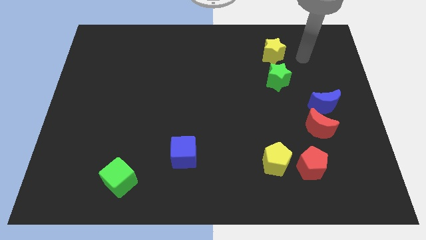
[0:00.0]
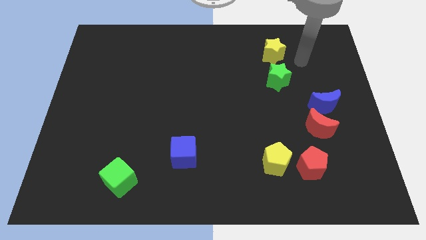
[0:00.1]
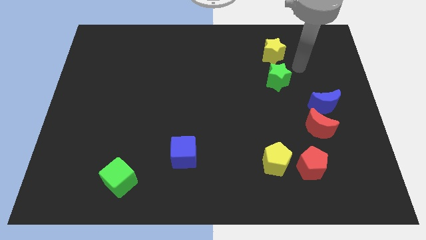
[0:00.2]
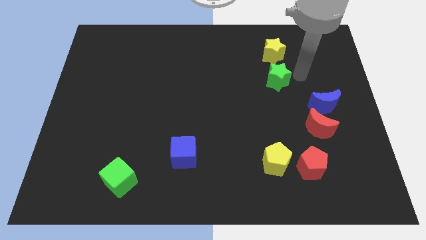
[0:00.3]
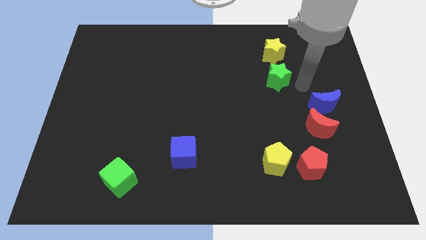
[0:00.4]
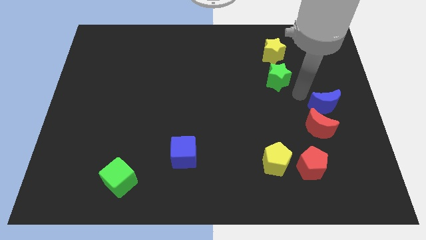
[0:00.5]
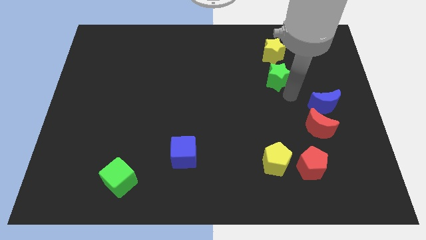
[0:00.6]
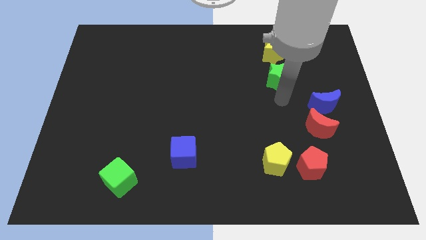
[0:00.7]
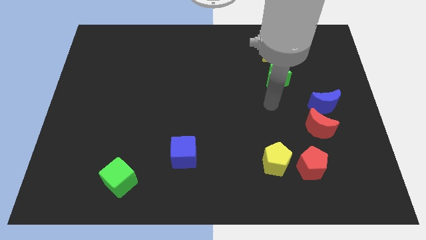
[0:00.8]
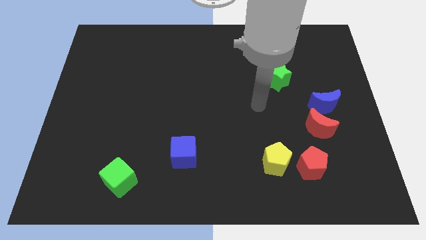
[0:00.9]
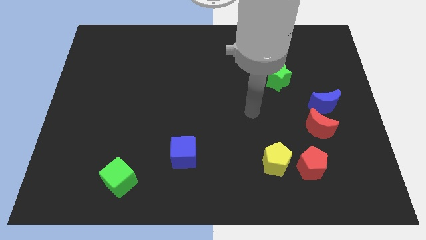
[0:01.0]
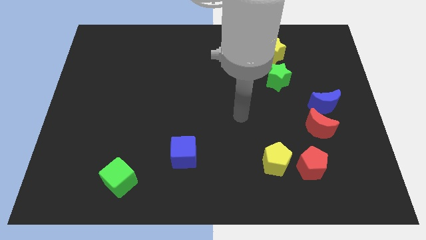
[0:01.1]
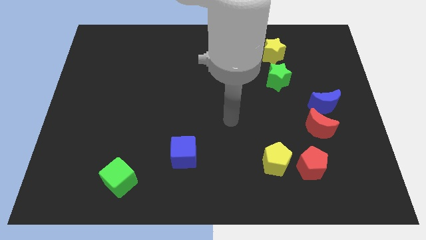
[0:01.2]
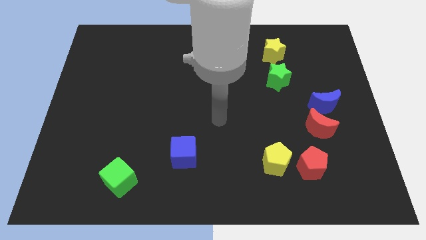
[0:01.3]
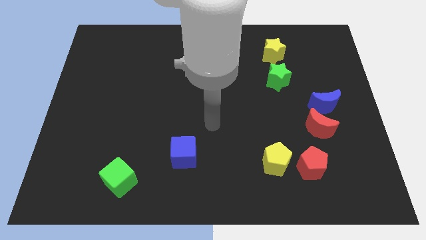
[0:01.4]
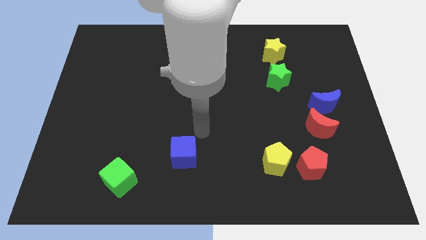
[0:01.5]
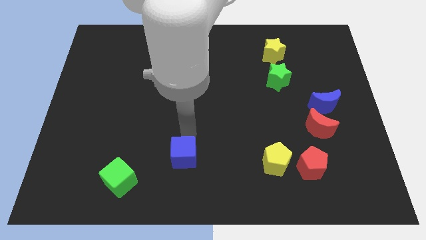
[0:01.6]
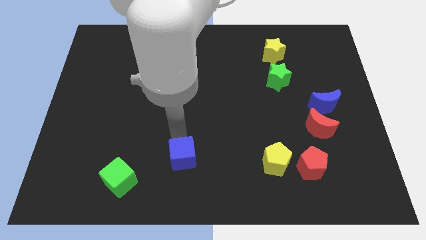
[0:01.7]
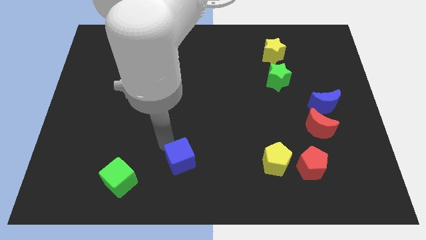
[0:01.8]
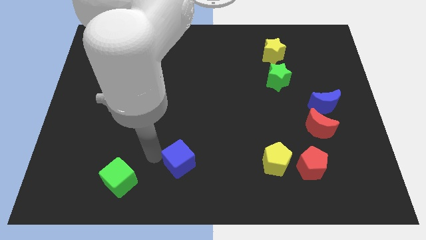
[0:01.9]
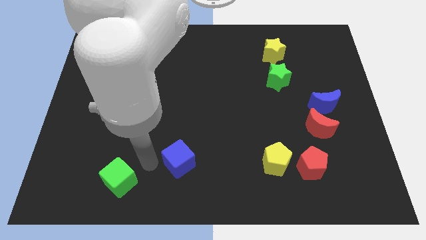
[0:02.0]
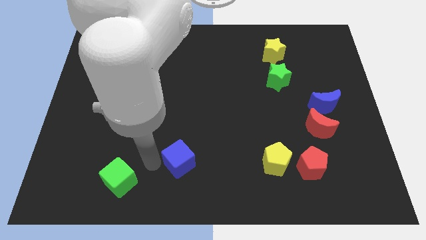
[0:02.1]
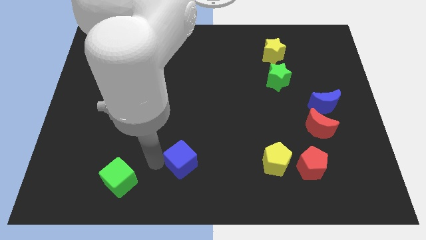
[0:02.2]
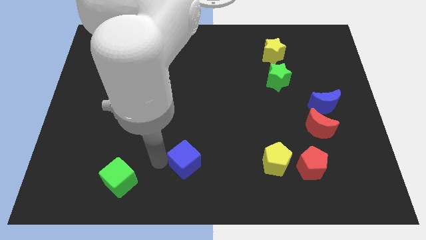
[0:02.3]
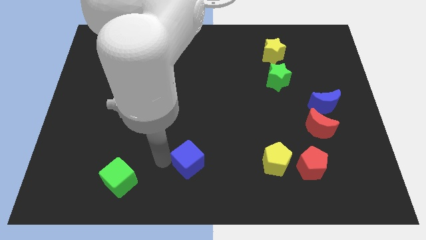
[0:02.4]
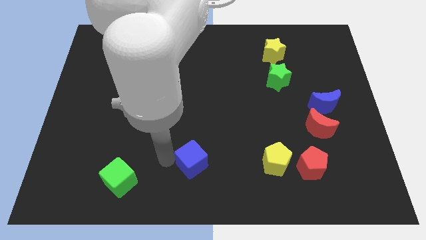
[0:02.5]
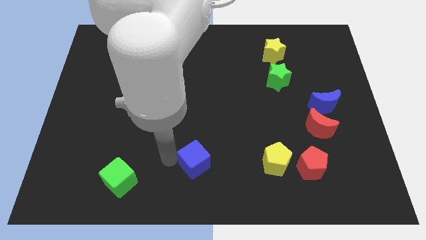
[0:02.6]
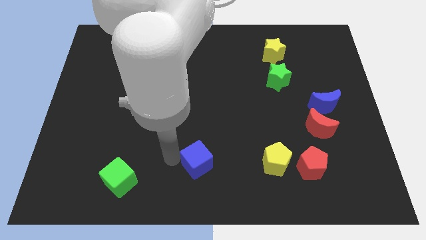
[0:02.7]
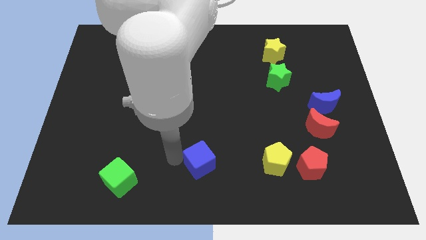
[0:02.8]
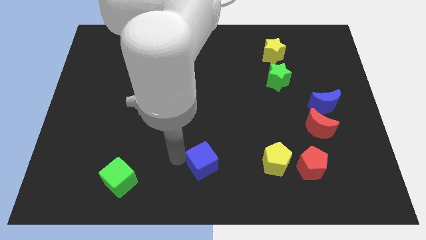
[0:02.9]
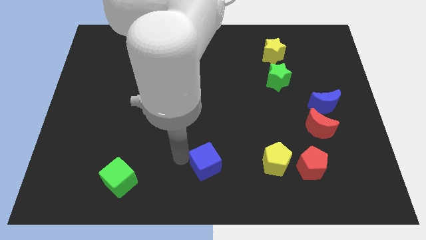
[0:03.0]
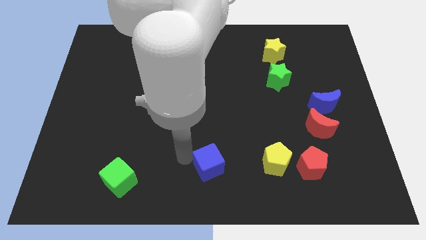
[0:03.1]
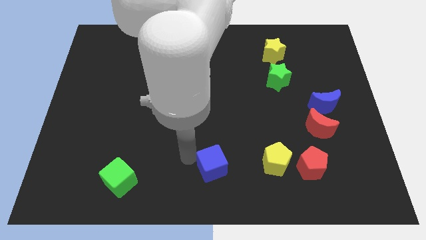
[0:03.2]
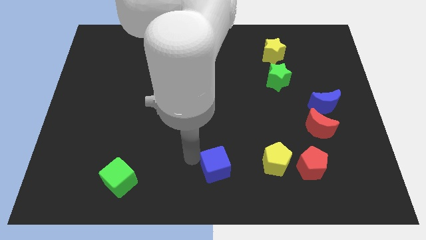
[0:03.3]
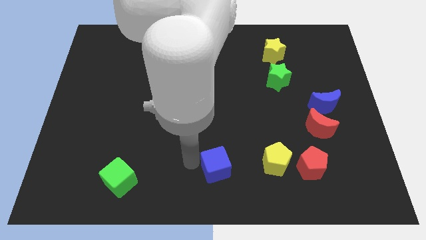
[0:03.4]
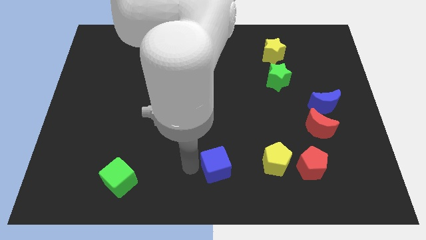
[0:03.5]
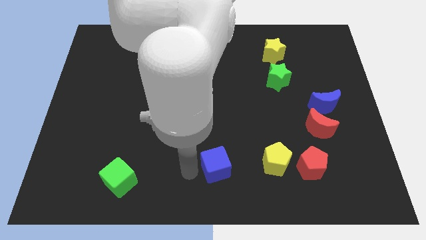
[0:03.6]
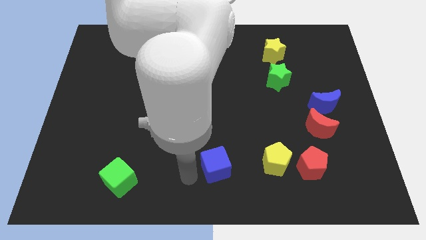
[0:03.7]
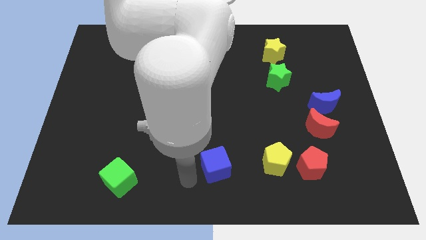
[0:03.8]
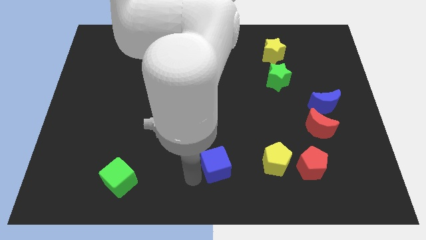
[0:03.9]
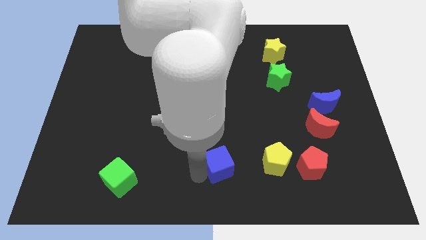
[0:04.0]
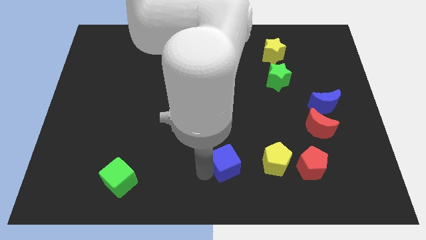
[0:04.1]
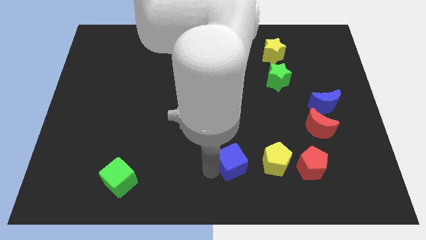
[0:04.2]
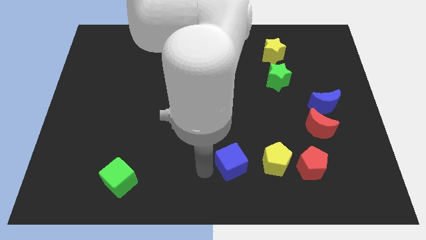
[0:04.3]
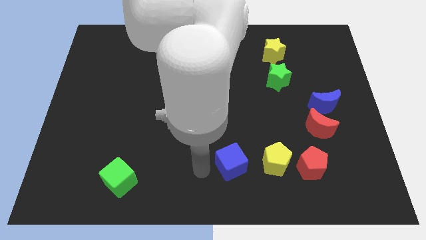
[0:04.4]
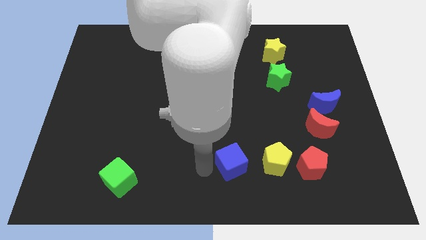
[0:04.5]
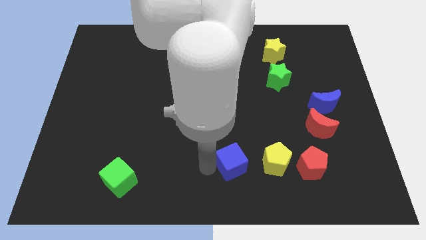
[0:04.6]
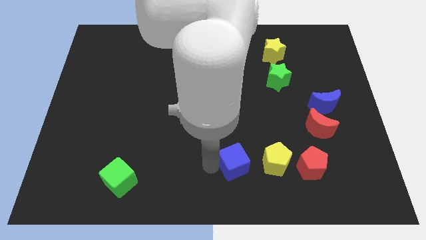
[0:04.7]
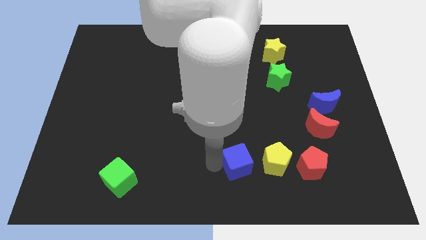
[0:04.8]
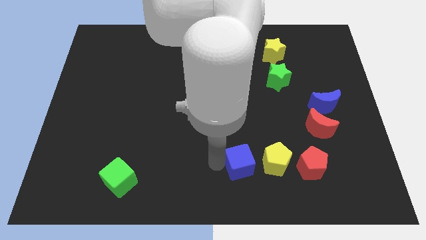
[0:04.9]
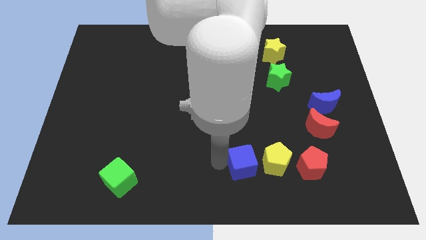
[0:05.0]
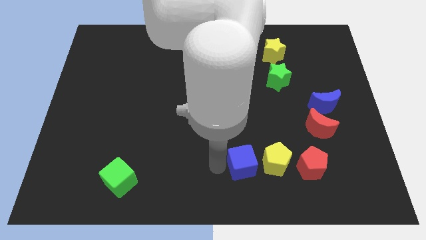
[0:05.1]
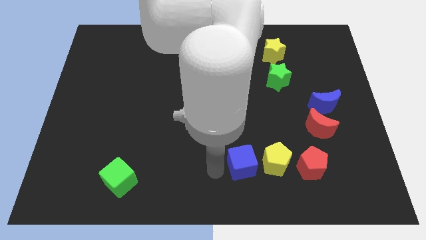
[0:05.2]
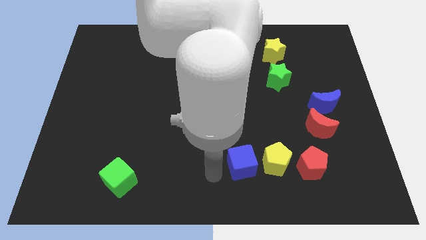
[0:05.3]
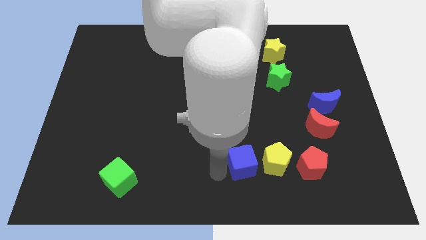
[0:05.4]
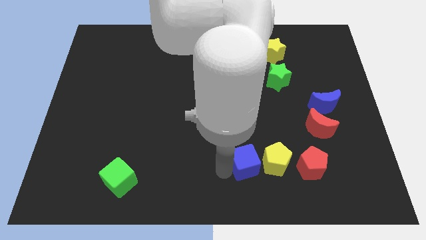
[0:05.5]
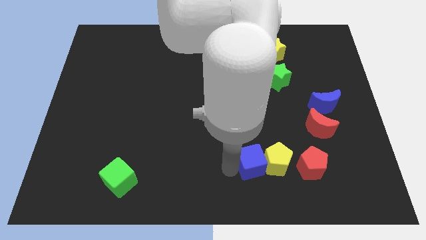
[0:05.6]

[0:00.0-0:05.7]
put the blue cube close to the yellow pentagon

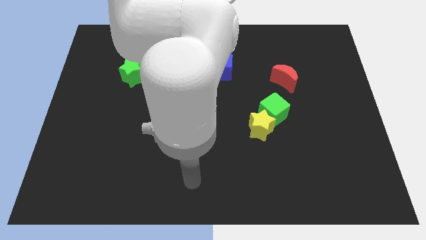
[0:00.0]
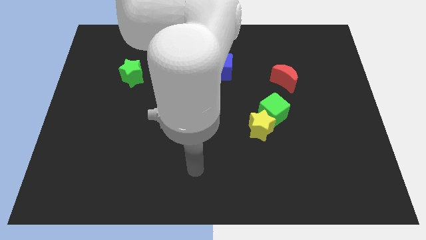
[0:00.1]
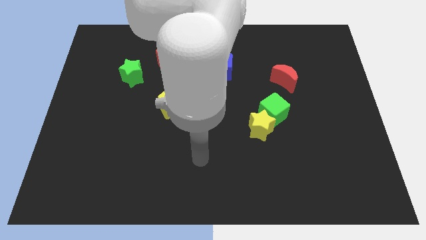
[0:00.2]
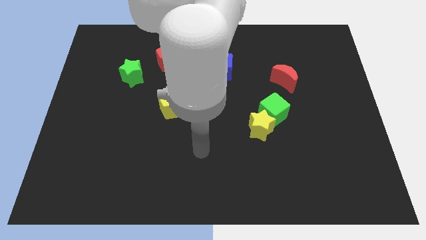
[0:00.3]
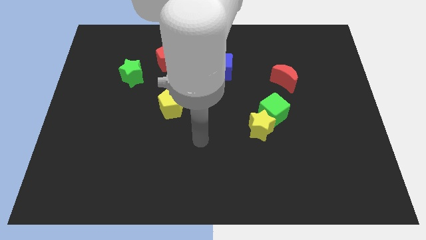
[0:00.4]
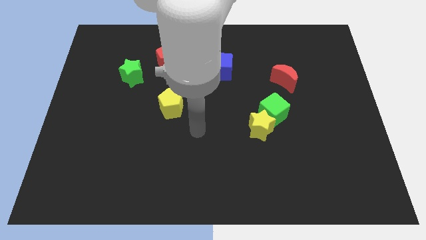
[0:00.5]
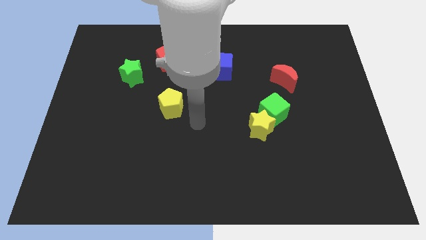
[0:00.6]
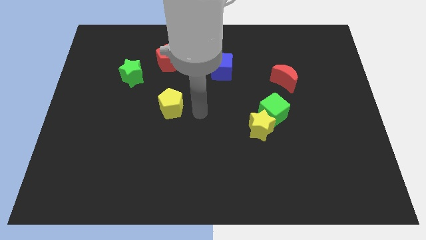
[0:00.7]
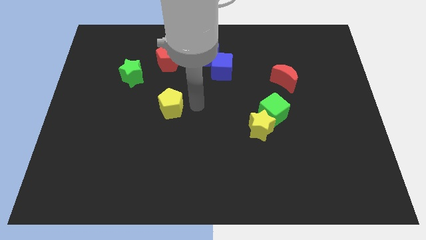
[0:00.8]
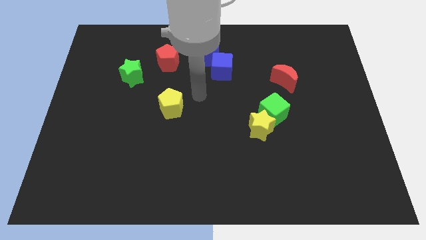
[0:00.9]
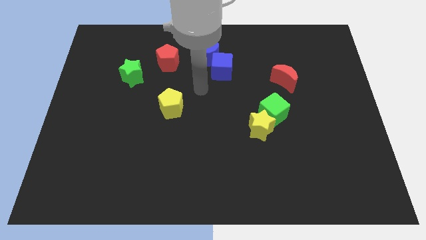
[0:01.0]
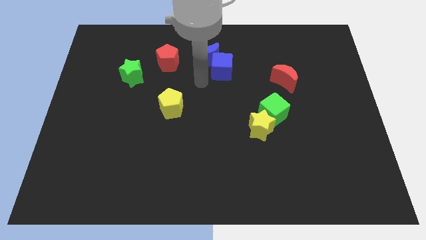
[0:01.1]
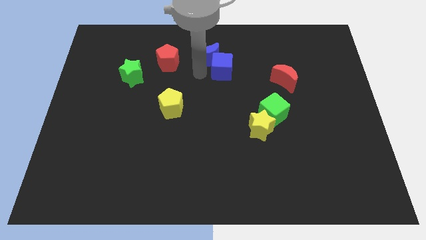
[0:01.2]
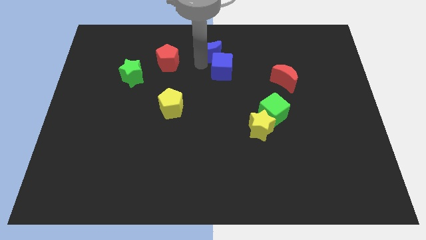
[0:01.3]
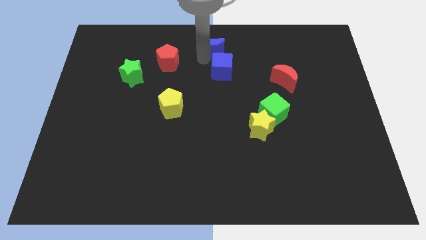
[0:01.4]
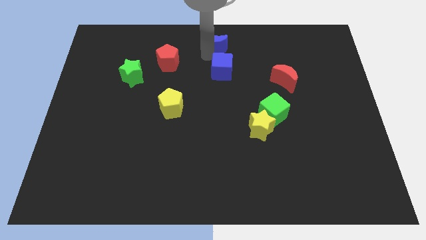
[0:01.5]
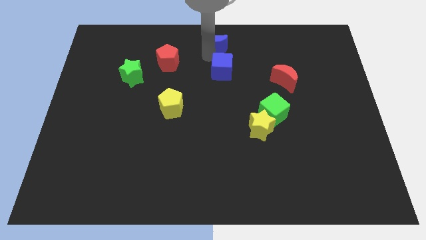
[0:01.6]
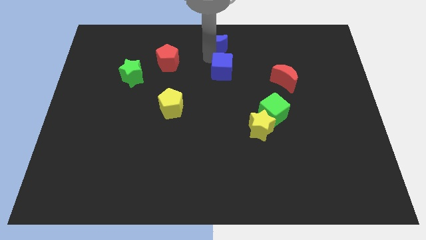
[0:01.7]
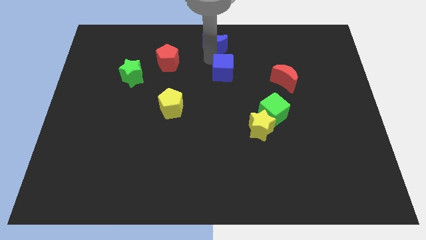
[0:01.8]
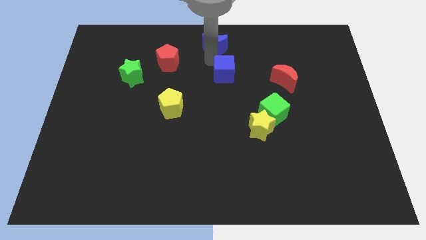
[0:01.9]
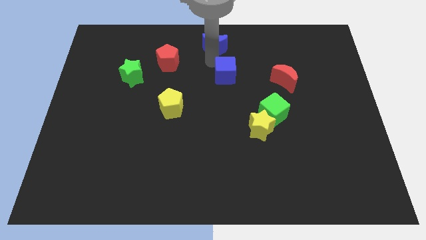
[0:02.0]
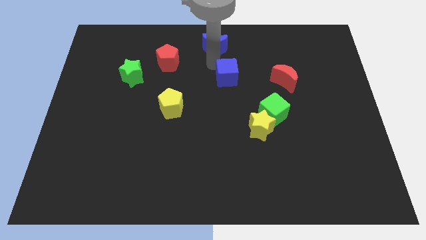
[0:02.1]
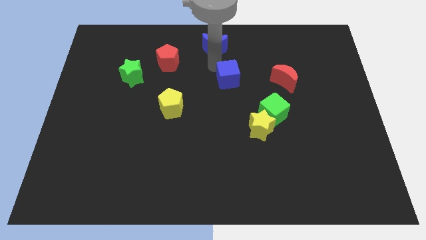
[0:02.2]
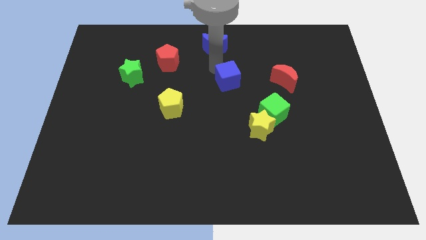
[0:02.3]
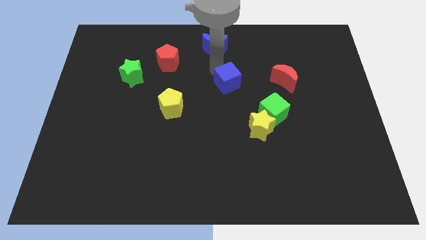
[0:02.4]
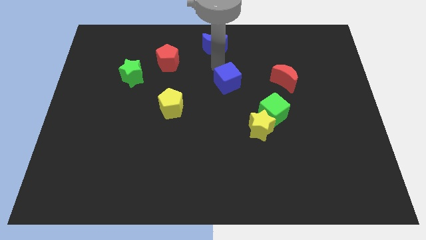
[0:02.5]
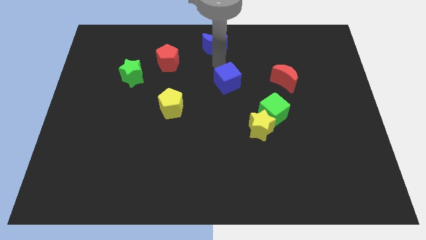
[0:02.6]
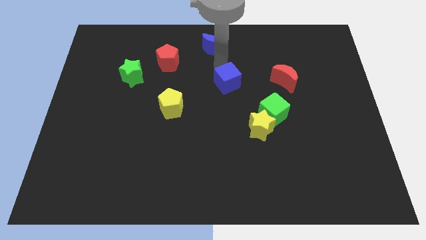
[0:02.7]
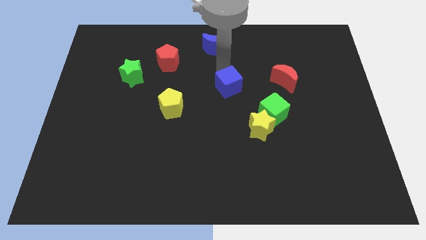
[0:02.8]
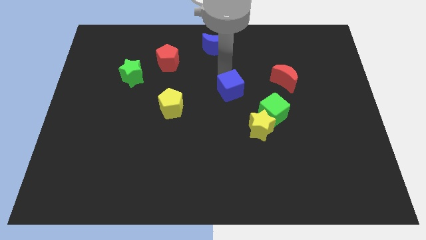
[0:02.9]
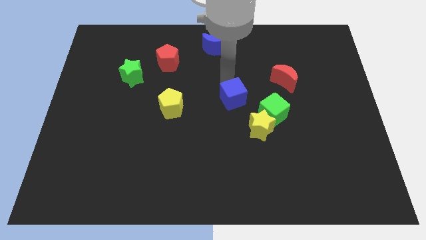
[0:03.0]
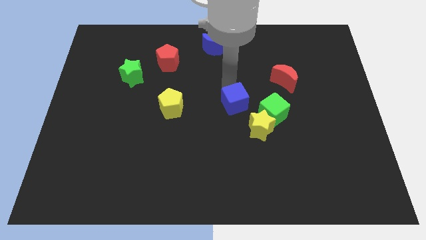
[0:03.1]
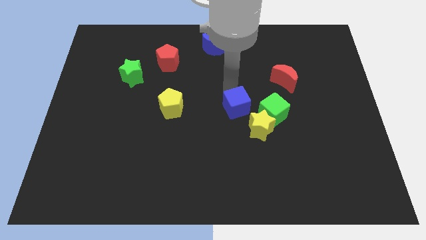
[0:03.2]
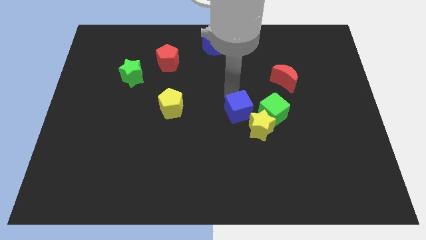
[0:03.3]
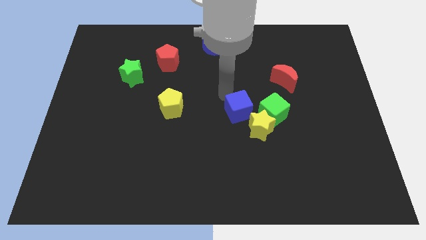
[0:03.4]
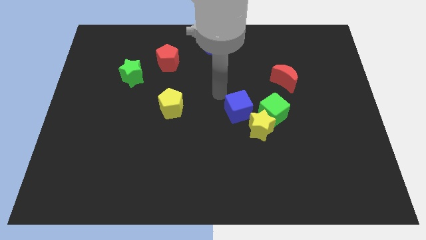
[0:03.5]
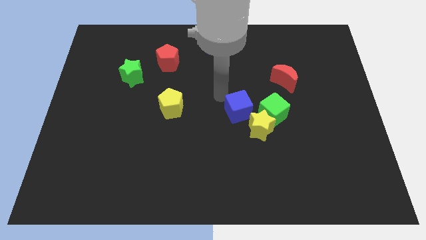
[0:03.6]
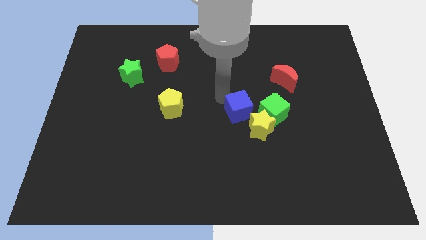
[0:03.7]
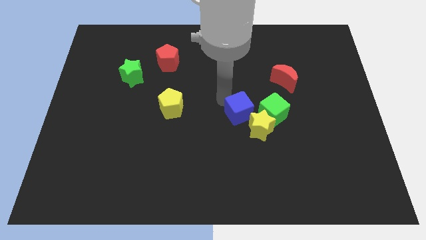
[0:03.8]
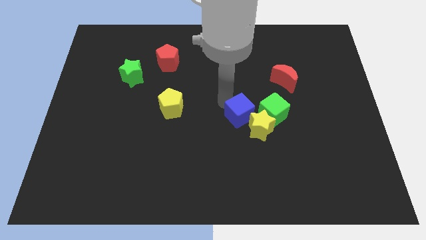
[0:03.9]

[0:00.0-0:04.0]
push the blue cube to the yellow star
